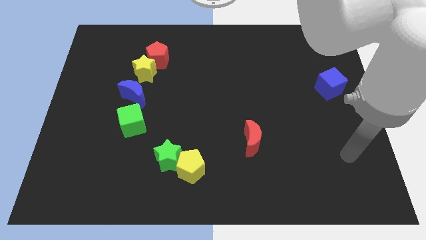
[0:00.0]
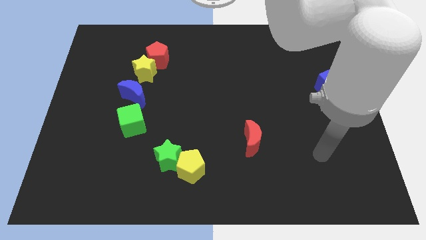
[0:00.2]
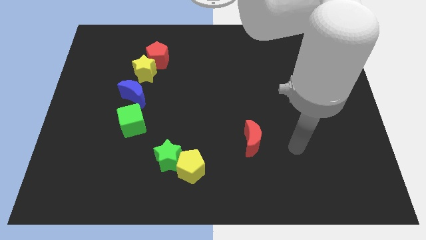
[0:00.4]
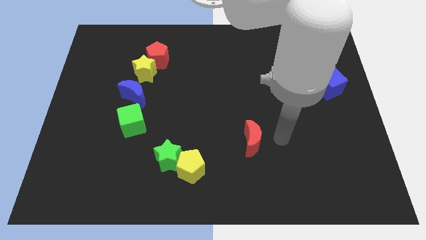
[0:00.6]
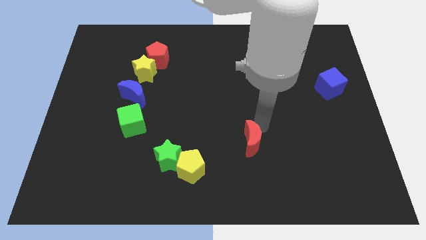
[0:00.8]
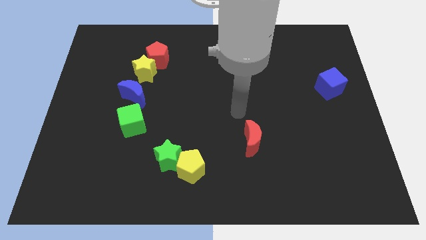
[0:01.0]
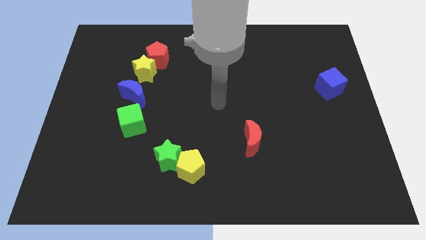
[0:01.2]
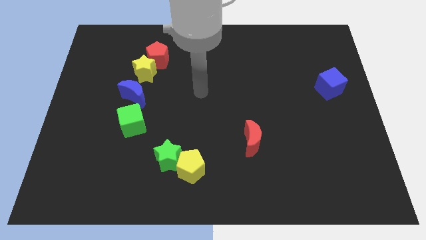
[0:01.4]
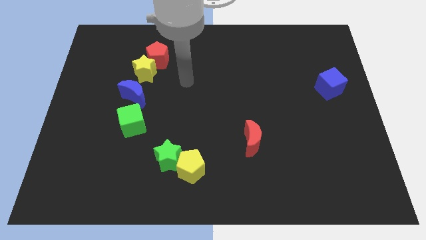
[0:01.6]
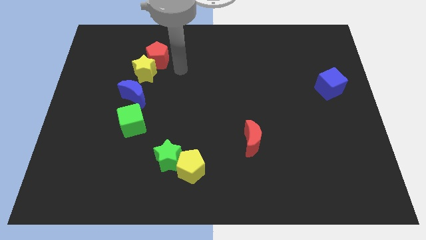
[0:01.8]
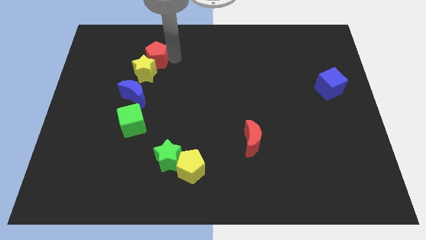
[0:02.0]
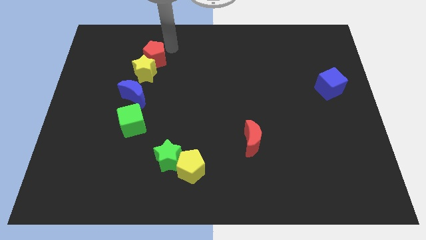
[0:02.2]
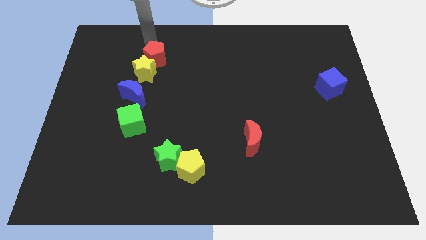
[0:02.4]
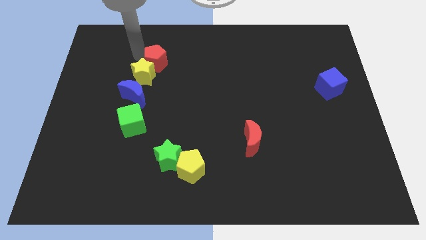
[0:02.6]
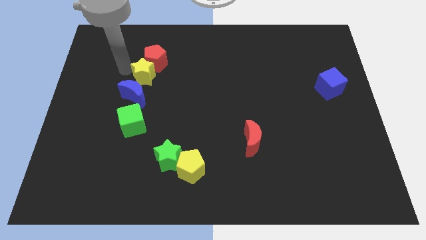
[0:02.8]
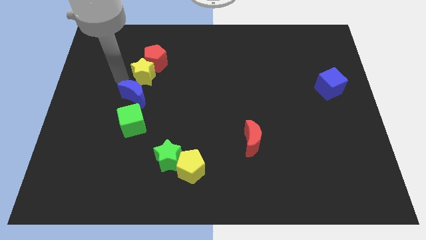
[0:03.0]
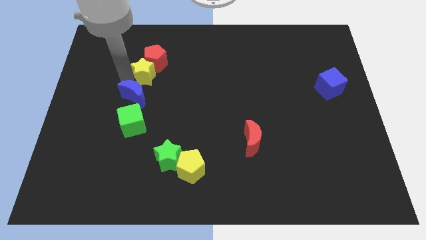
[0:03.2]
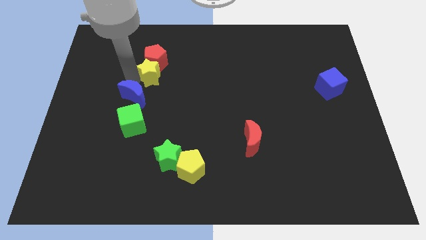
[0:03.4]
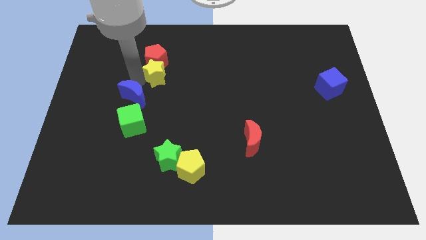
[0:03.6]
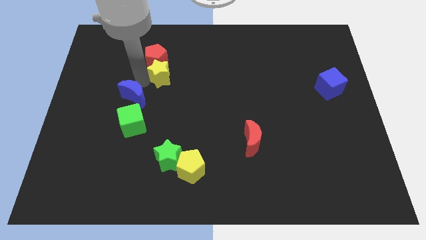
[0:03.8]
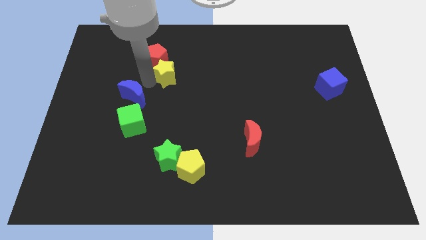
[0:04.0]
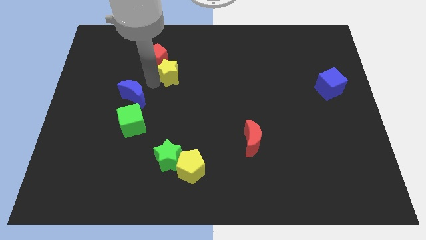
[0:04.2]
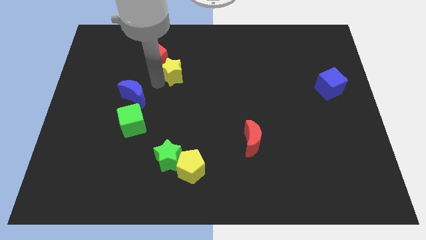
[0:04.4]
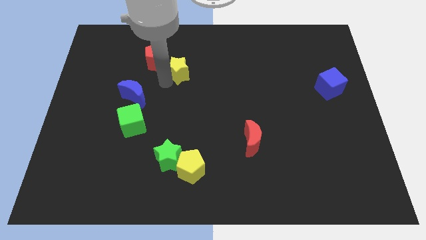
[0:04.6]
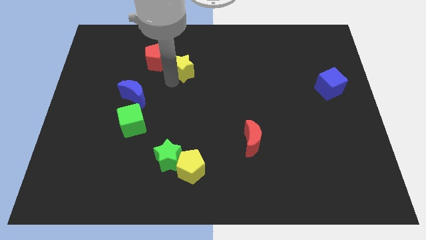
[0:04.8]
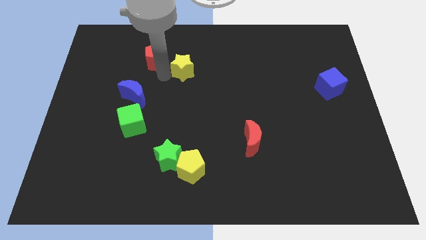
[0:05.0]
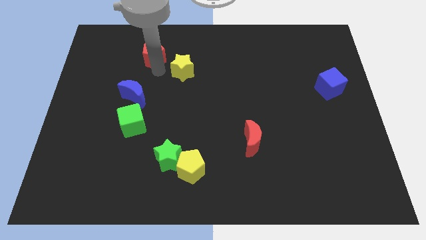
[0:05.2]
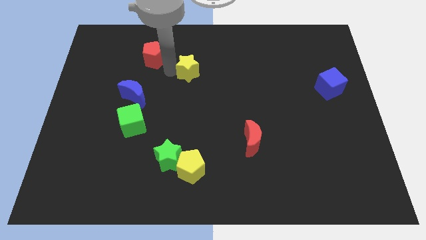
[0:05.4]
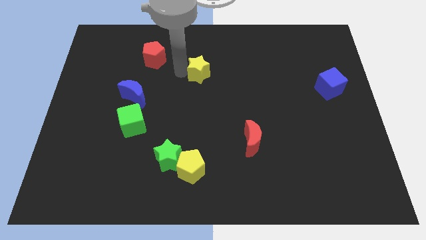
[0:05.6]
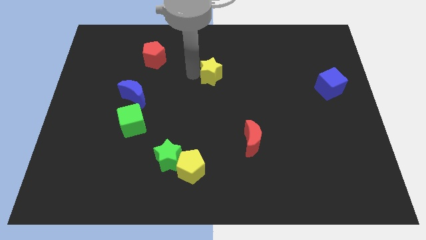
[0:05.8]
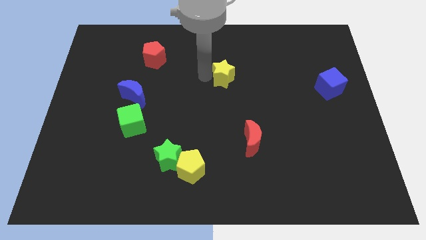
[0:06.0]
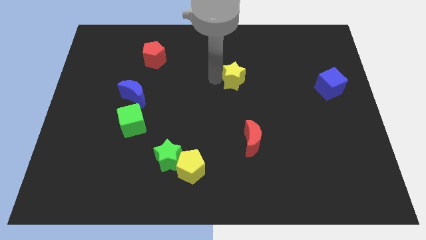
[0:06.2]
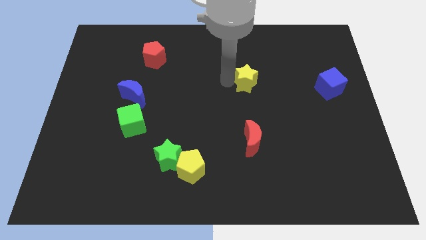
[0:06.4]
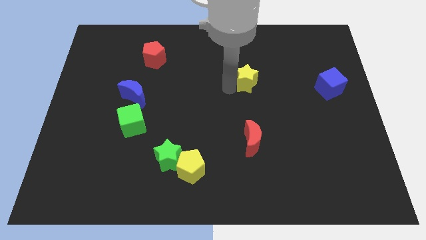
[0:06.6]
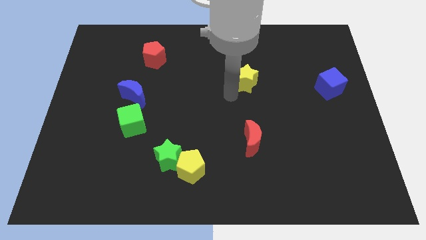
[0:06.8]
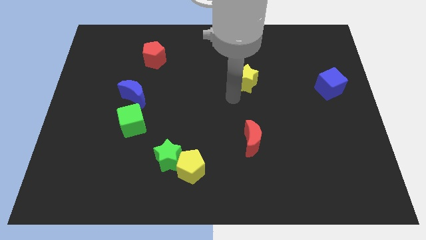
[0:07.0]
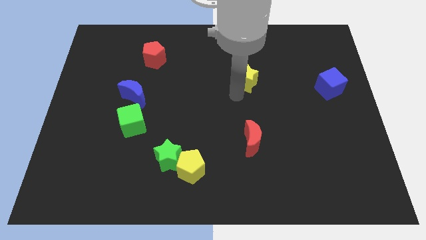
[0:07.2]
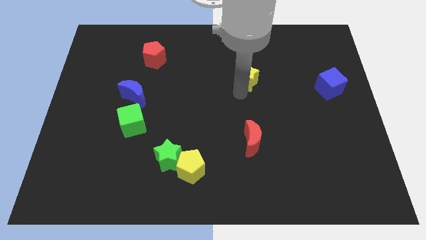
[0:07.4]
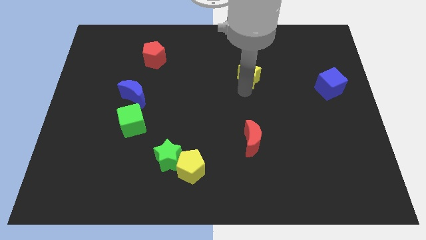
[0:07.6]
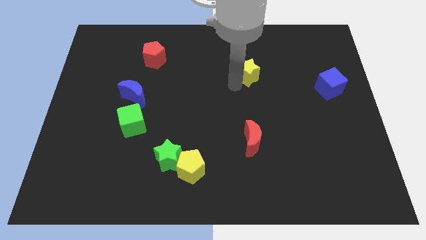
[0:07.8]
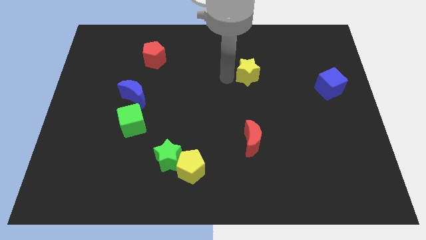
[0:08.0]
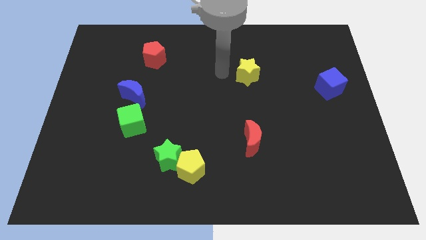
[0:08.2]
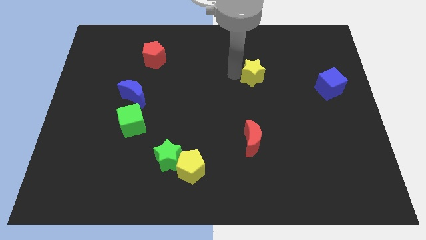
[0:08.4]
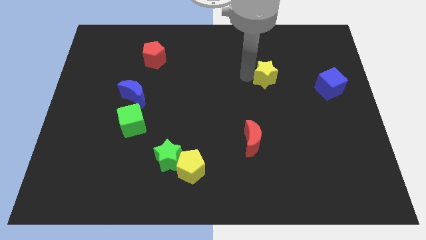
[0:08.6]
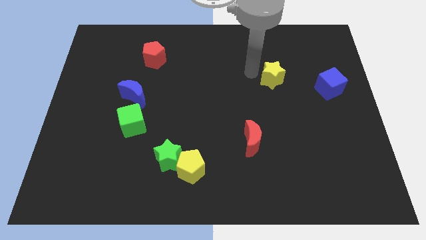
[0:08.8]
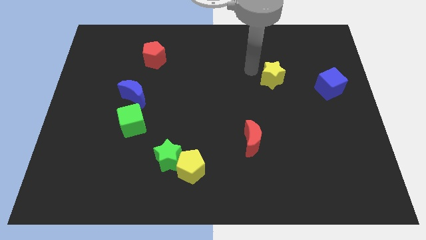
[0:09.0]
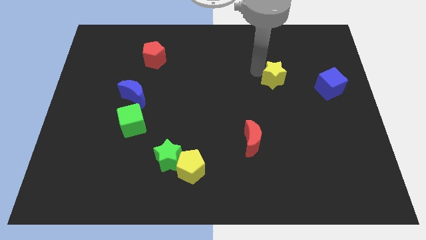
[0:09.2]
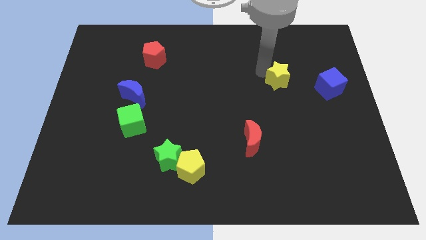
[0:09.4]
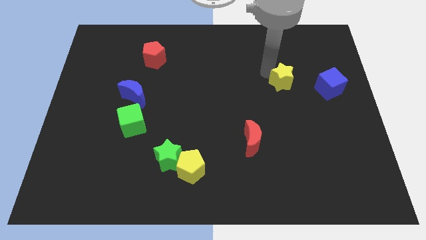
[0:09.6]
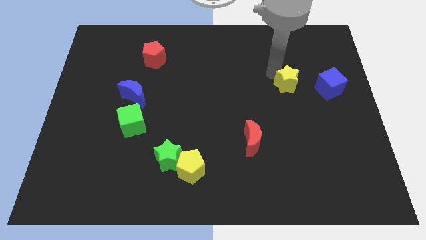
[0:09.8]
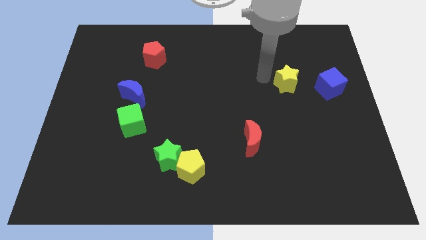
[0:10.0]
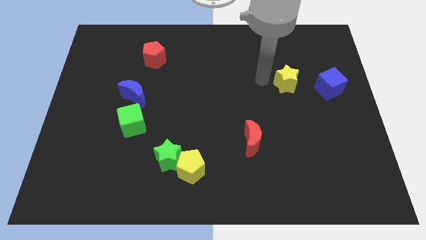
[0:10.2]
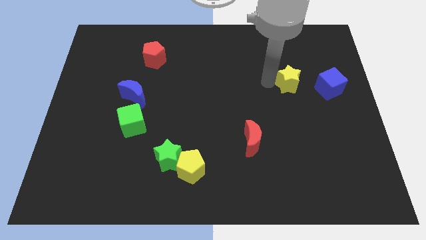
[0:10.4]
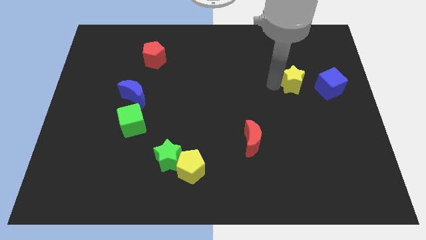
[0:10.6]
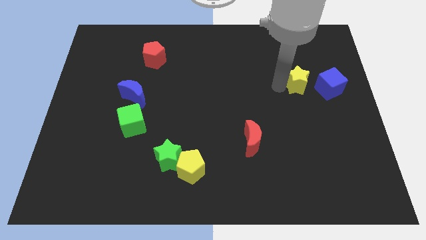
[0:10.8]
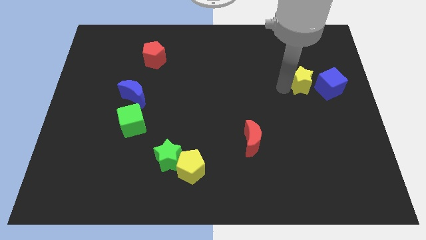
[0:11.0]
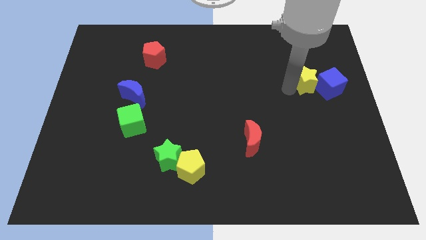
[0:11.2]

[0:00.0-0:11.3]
move the yellow star to the blue cube

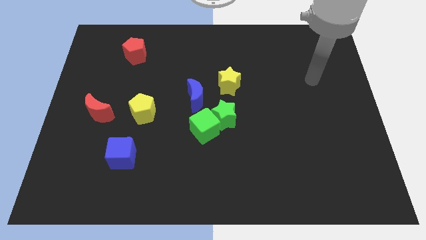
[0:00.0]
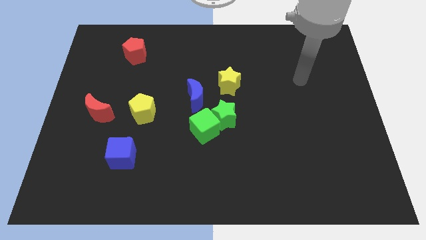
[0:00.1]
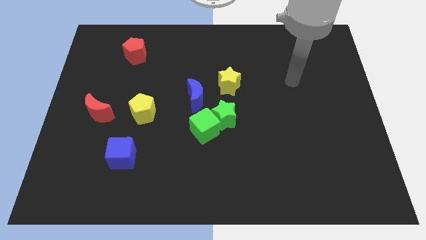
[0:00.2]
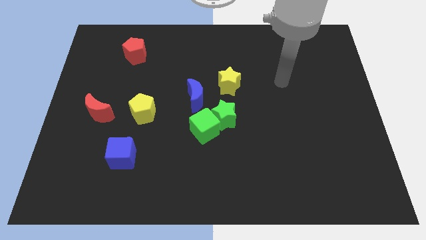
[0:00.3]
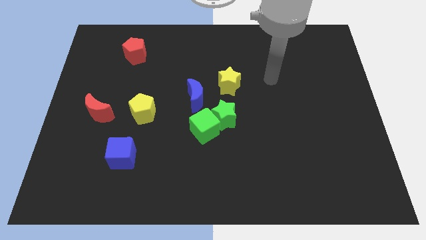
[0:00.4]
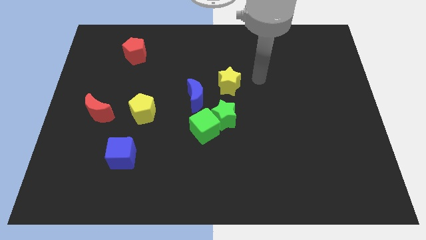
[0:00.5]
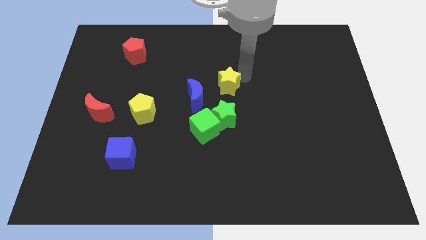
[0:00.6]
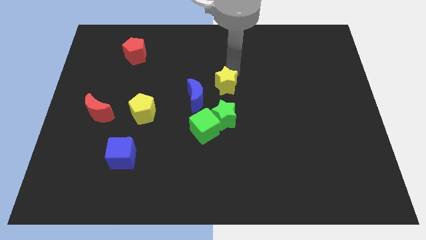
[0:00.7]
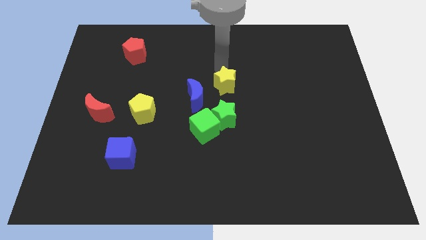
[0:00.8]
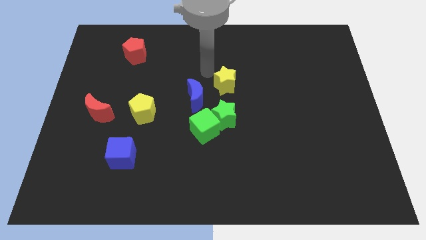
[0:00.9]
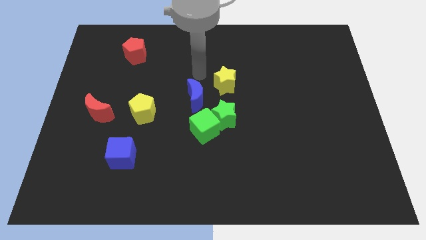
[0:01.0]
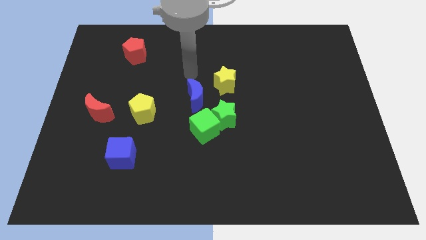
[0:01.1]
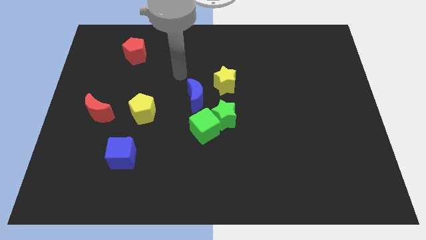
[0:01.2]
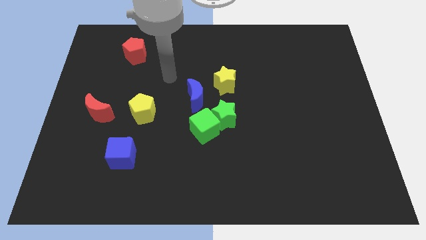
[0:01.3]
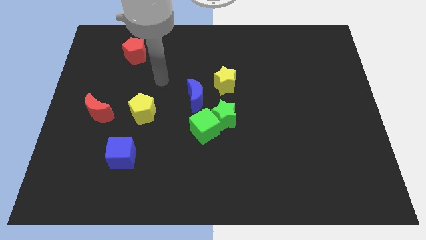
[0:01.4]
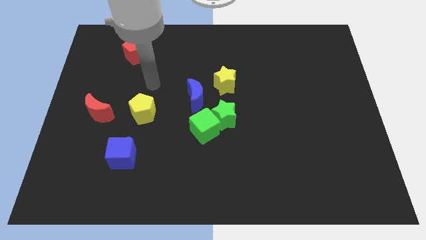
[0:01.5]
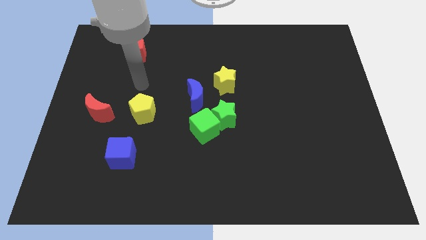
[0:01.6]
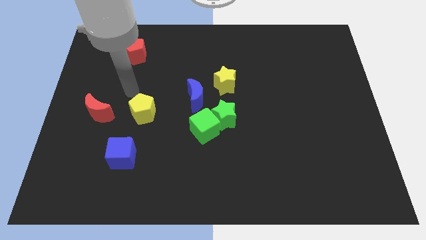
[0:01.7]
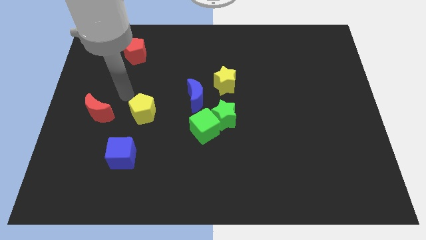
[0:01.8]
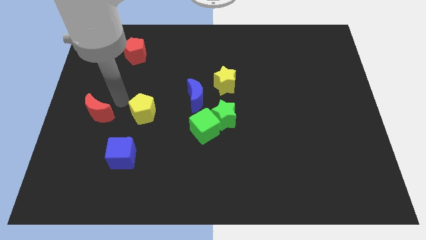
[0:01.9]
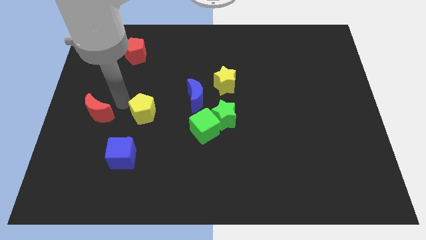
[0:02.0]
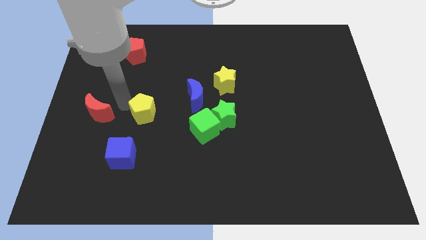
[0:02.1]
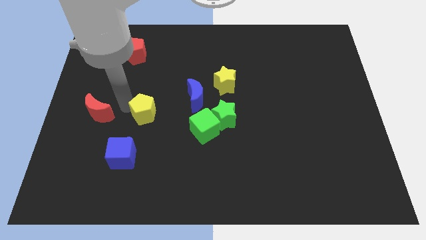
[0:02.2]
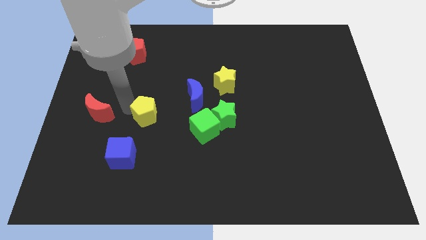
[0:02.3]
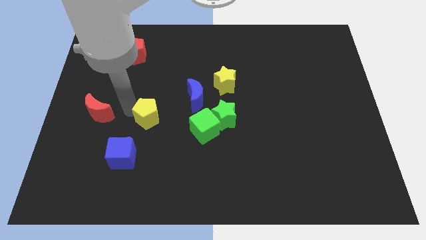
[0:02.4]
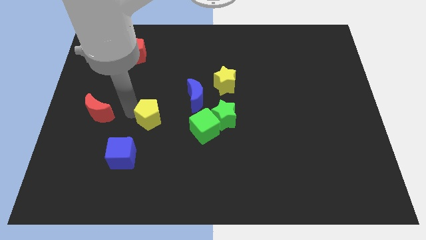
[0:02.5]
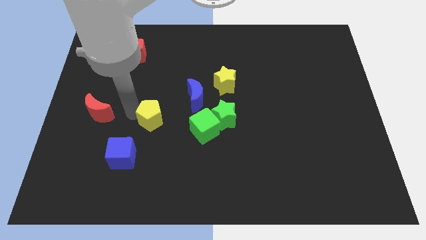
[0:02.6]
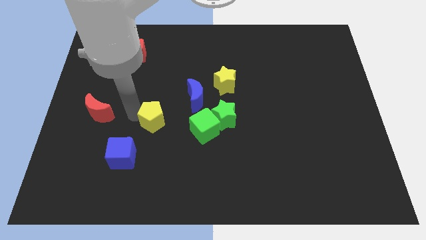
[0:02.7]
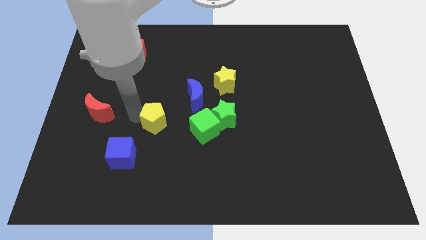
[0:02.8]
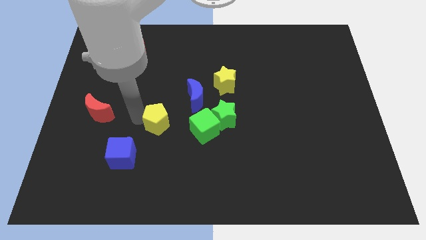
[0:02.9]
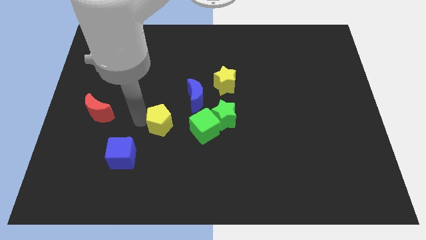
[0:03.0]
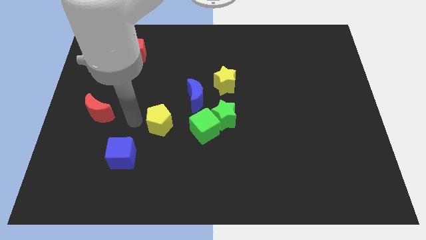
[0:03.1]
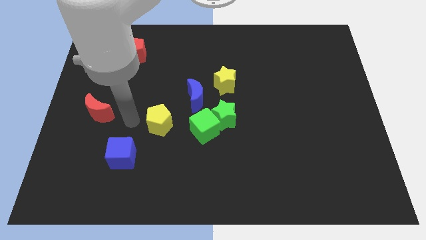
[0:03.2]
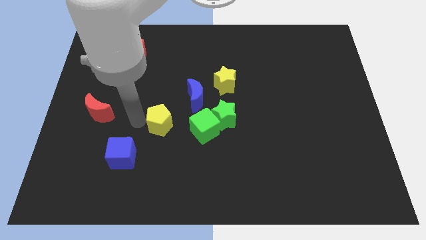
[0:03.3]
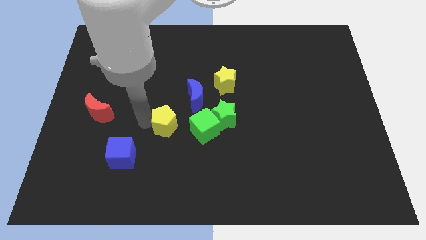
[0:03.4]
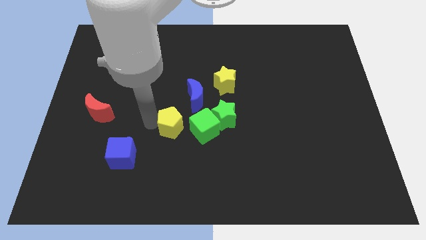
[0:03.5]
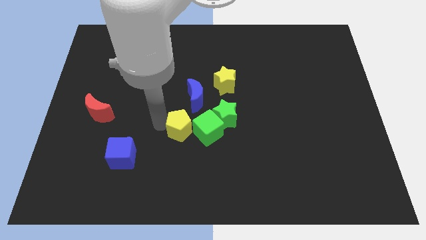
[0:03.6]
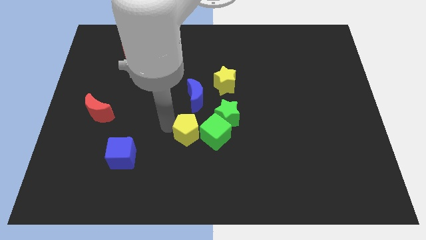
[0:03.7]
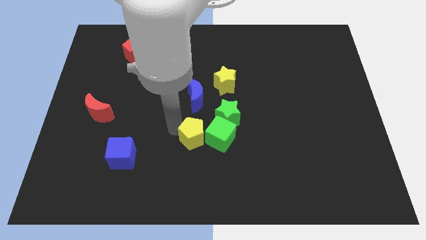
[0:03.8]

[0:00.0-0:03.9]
push the yellow pentagon next to the green cube
